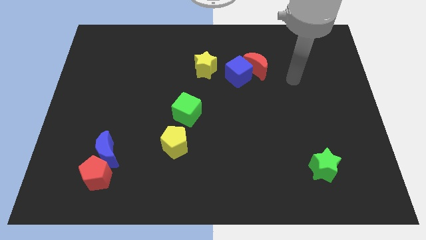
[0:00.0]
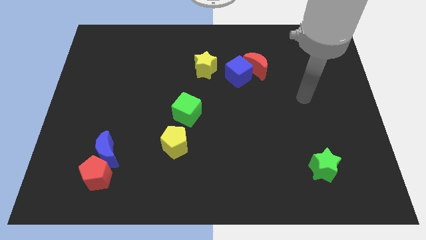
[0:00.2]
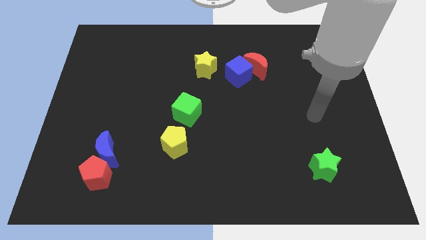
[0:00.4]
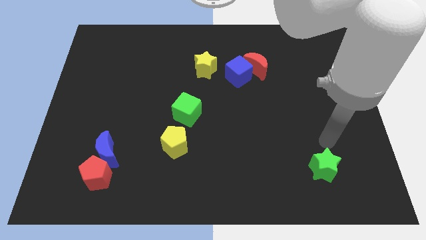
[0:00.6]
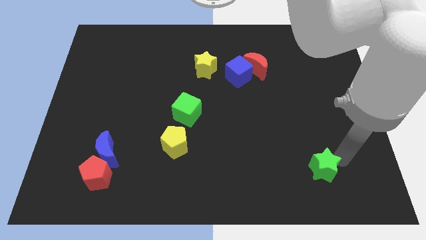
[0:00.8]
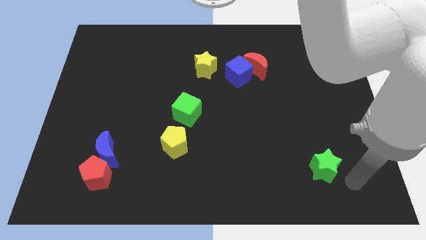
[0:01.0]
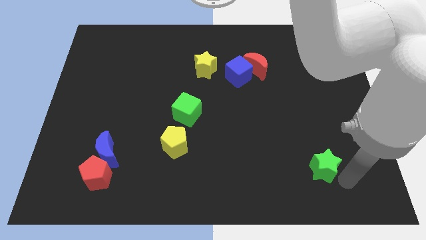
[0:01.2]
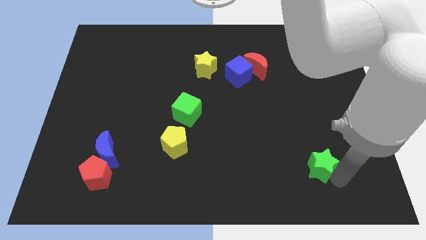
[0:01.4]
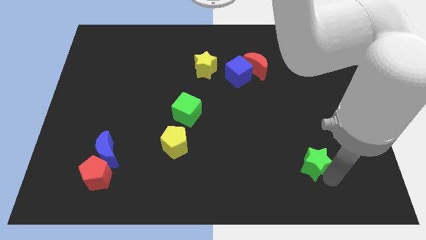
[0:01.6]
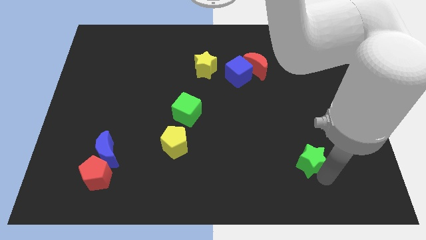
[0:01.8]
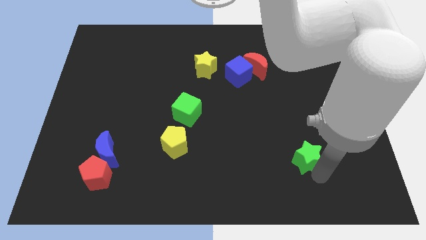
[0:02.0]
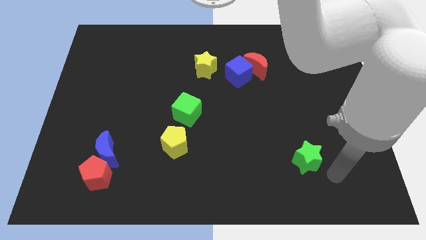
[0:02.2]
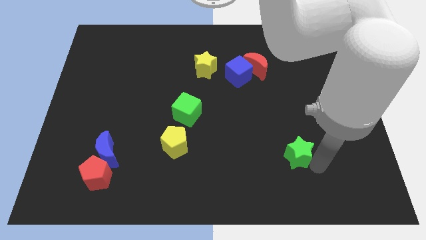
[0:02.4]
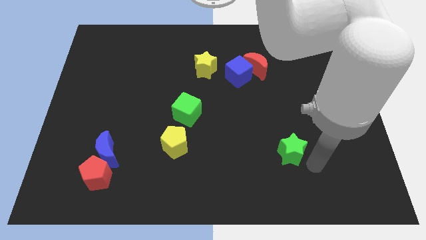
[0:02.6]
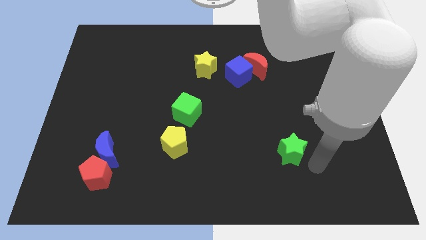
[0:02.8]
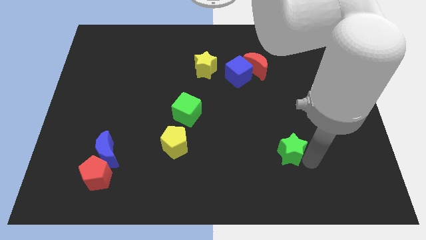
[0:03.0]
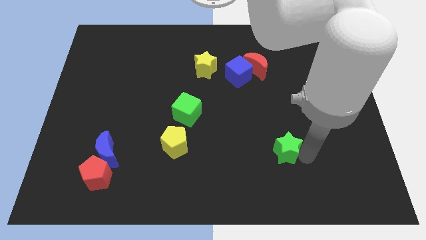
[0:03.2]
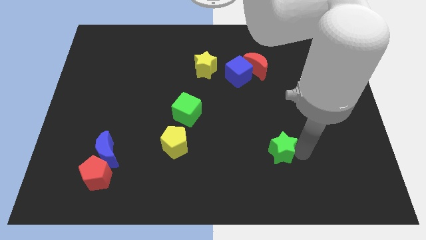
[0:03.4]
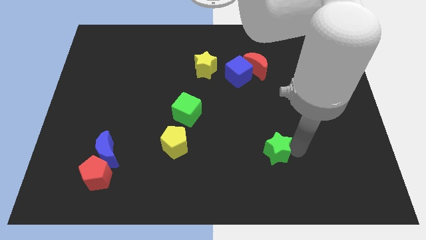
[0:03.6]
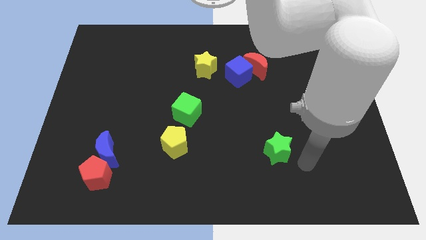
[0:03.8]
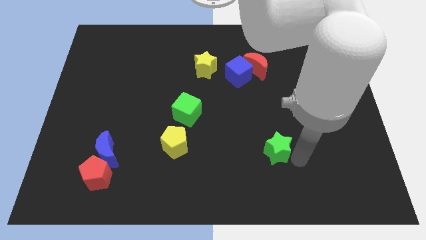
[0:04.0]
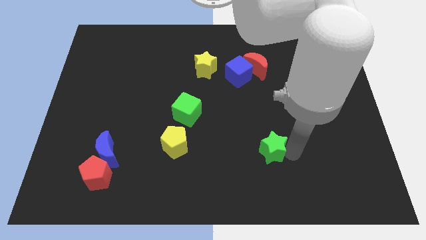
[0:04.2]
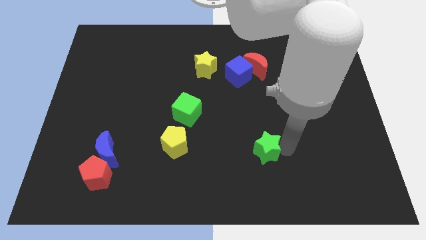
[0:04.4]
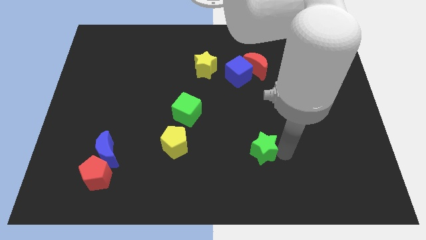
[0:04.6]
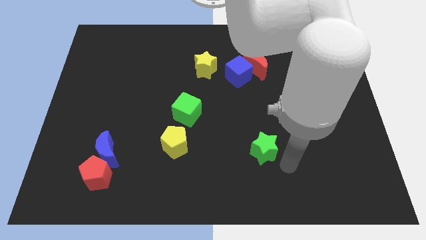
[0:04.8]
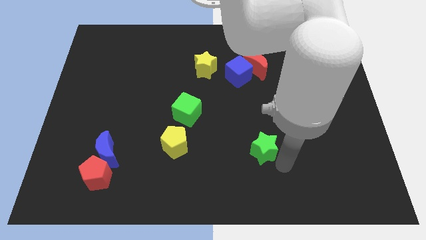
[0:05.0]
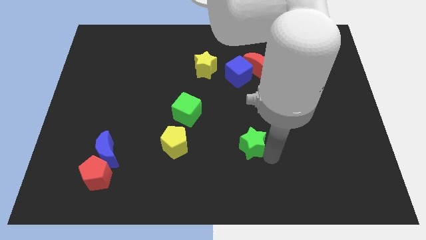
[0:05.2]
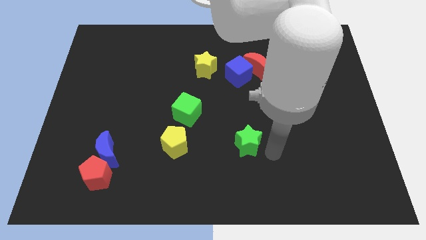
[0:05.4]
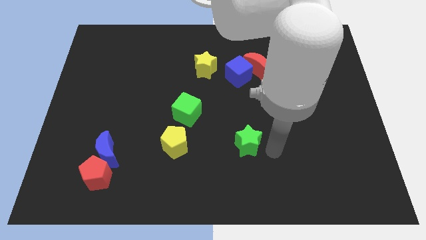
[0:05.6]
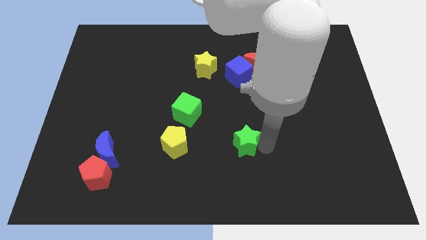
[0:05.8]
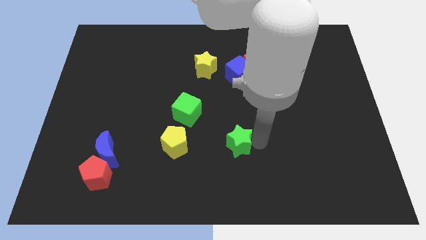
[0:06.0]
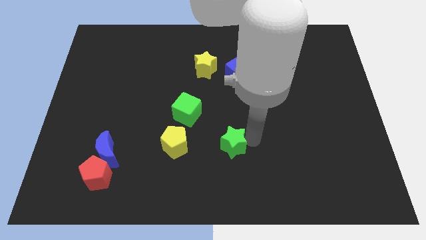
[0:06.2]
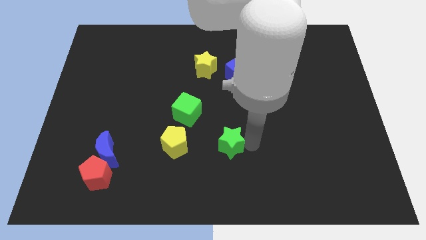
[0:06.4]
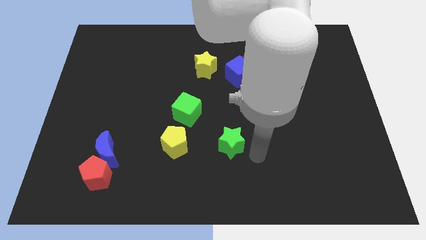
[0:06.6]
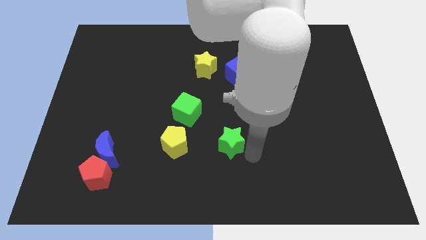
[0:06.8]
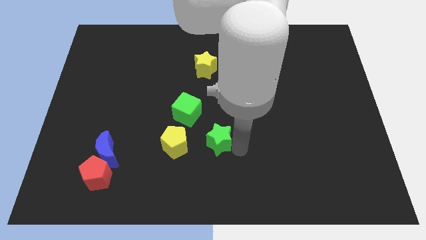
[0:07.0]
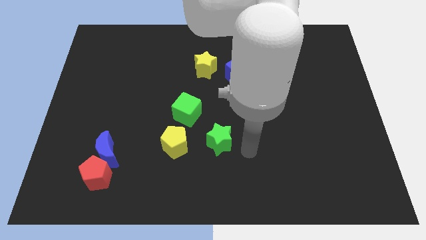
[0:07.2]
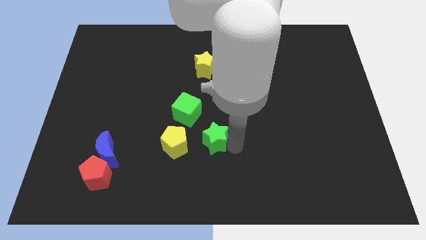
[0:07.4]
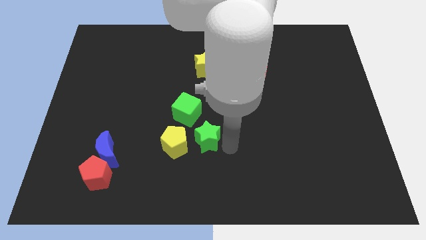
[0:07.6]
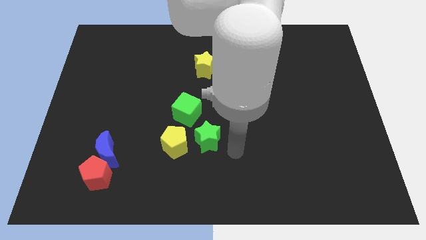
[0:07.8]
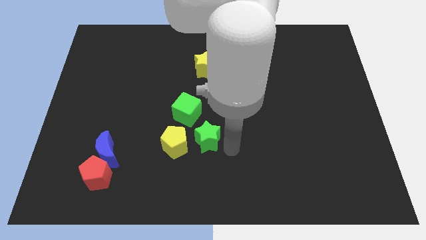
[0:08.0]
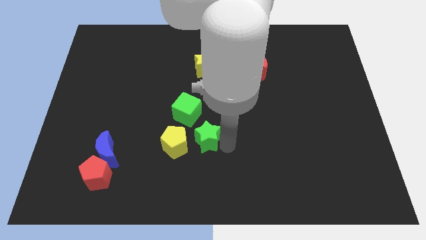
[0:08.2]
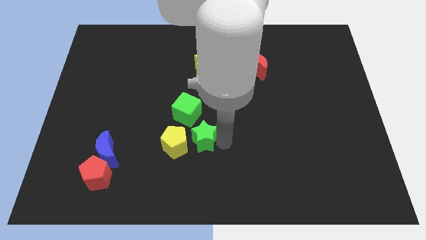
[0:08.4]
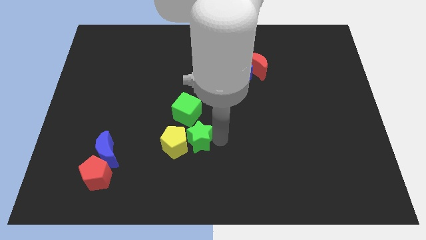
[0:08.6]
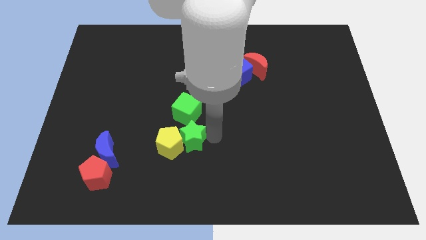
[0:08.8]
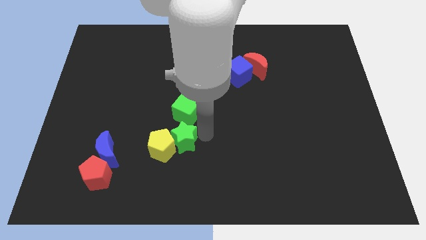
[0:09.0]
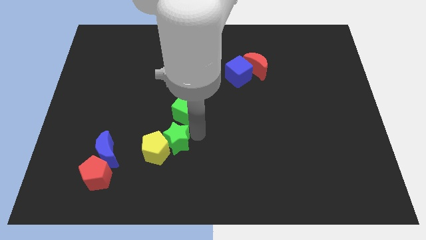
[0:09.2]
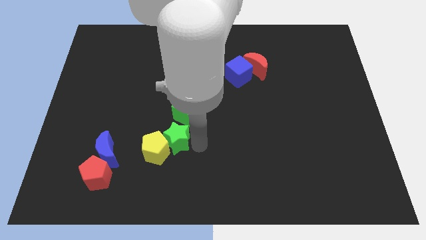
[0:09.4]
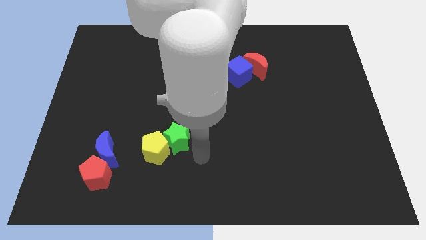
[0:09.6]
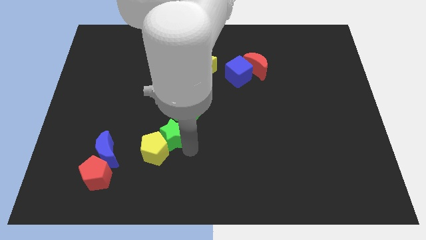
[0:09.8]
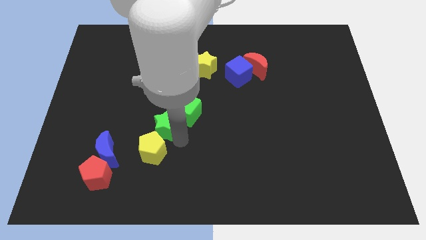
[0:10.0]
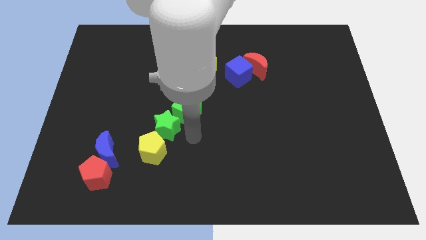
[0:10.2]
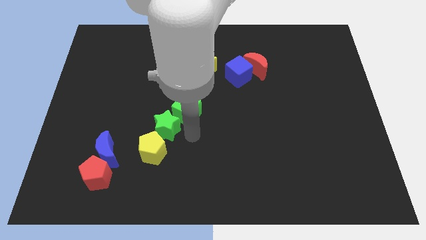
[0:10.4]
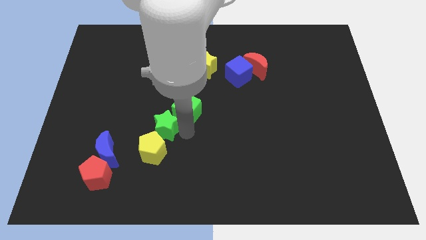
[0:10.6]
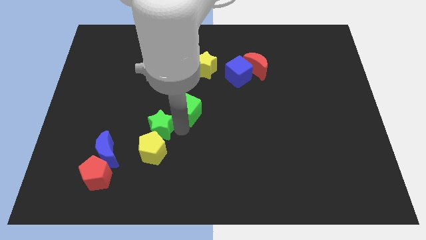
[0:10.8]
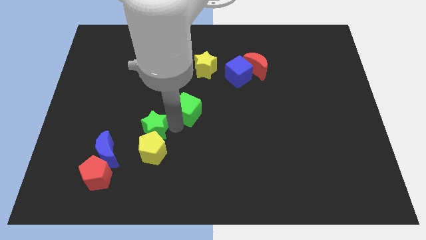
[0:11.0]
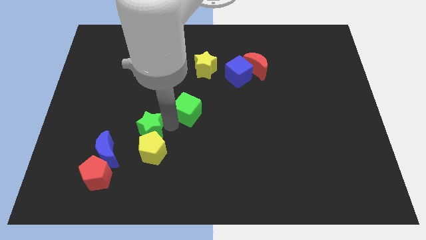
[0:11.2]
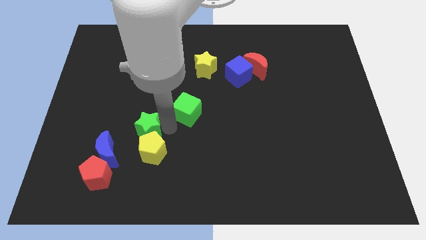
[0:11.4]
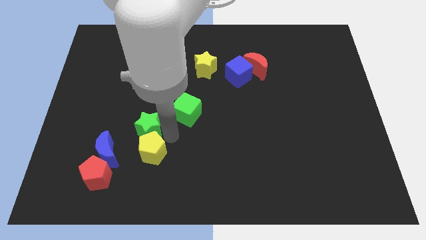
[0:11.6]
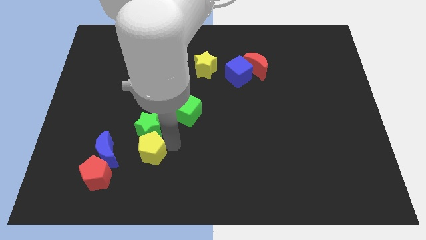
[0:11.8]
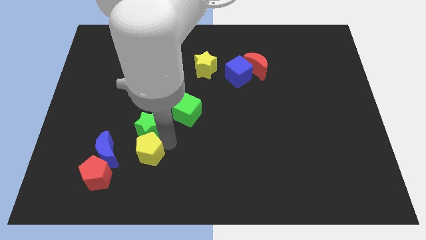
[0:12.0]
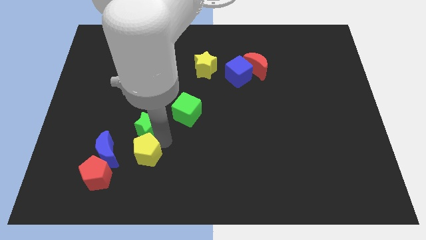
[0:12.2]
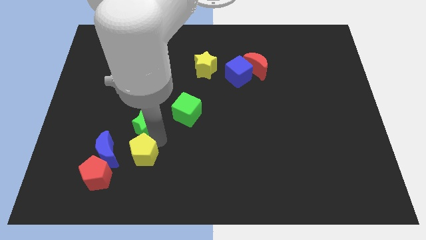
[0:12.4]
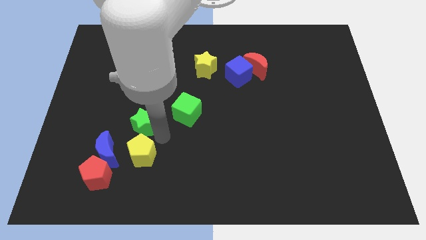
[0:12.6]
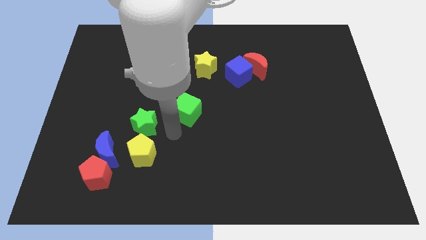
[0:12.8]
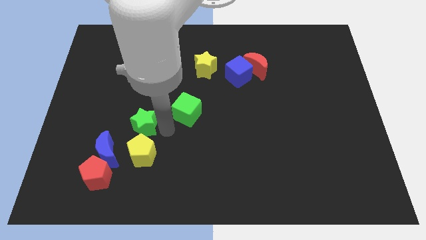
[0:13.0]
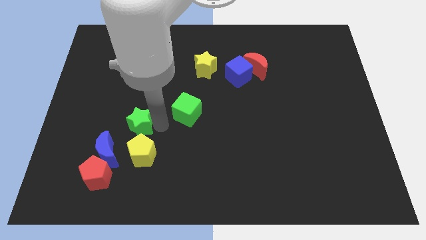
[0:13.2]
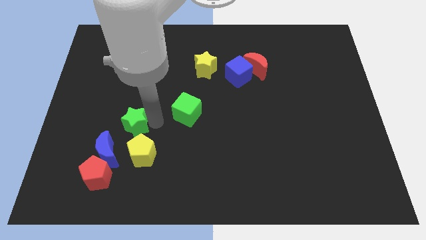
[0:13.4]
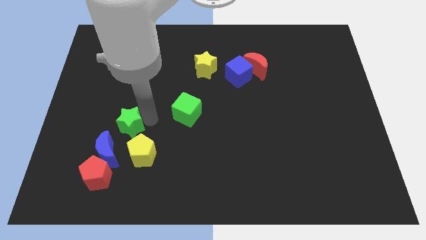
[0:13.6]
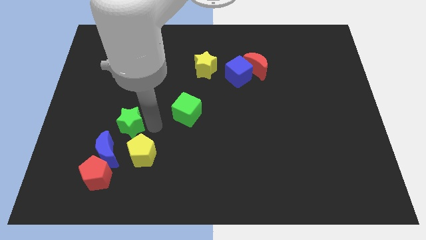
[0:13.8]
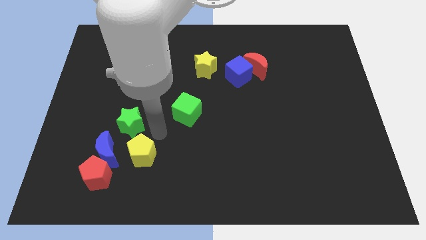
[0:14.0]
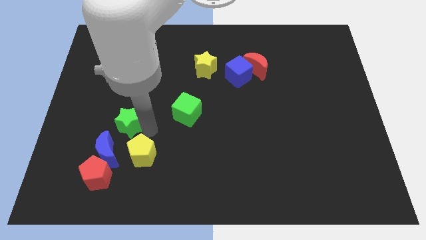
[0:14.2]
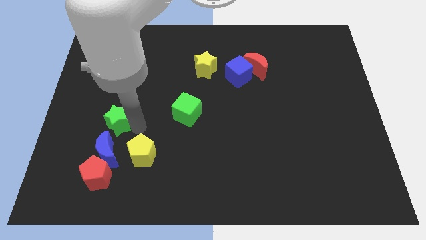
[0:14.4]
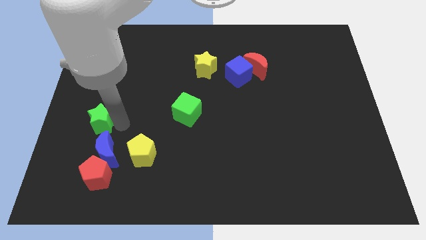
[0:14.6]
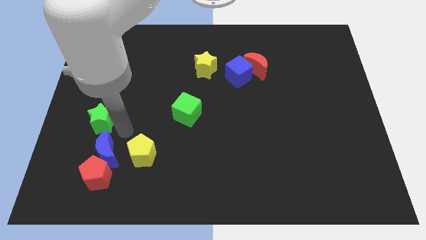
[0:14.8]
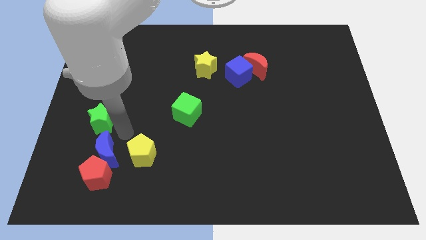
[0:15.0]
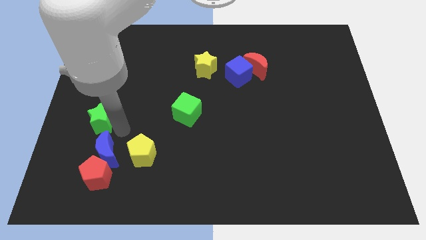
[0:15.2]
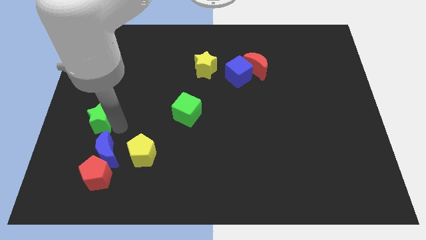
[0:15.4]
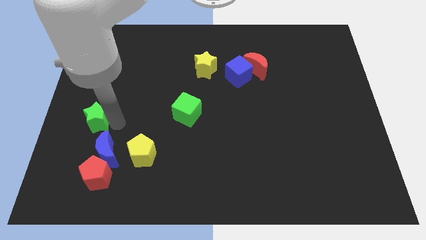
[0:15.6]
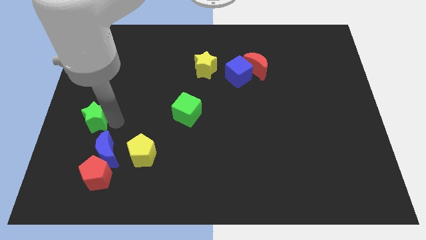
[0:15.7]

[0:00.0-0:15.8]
push the green star to the left side
